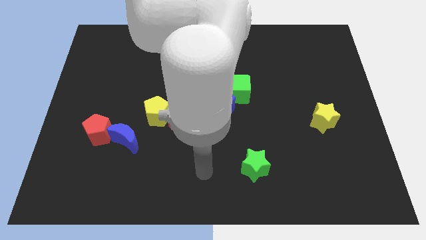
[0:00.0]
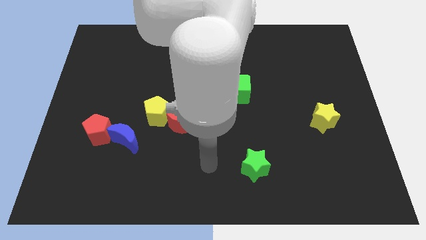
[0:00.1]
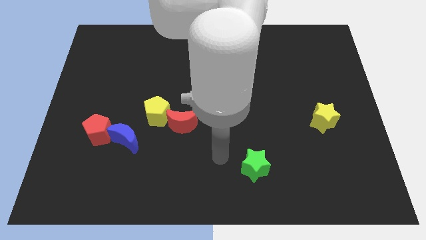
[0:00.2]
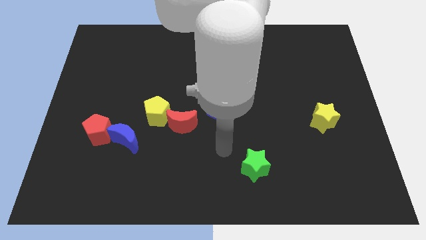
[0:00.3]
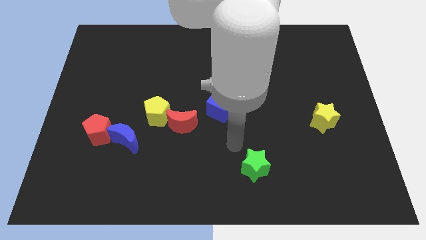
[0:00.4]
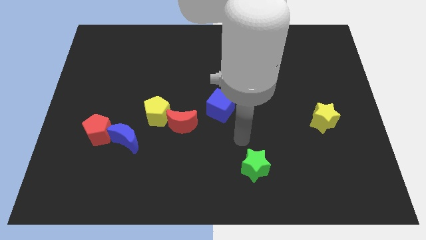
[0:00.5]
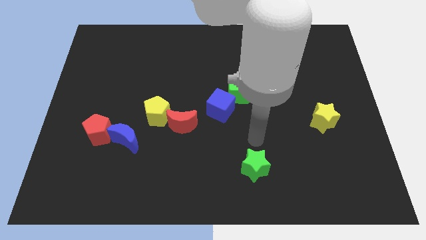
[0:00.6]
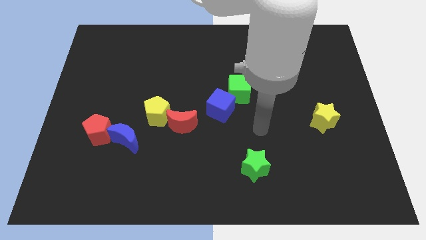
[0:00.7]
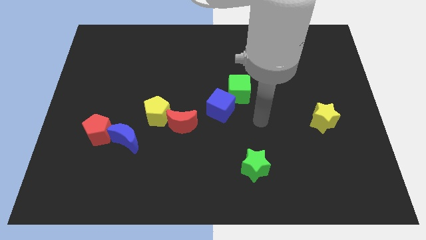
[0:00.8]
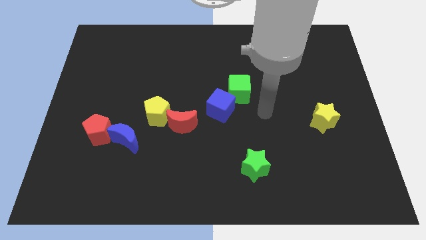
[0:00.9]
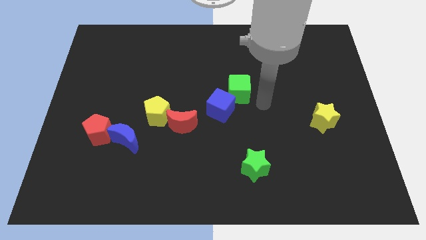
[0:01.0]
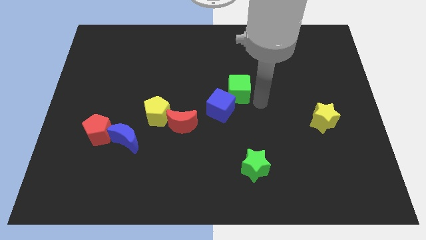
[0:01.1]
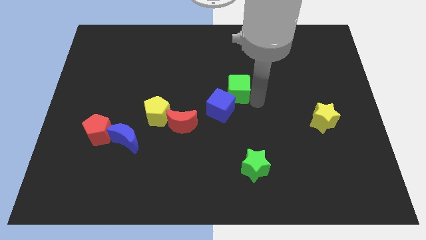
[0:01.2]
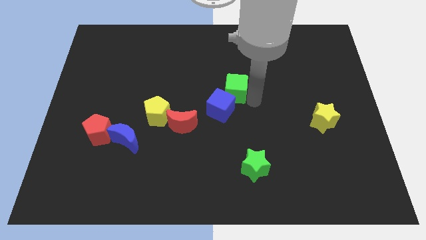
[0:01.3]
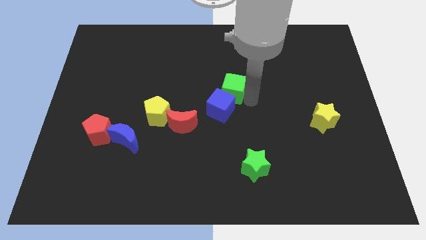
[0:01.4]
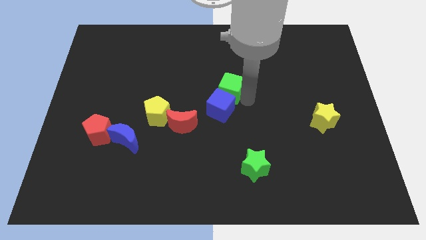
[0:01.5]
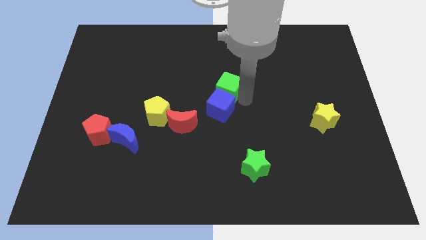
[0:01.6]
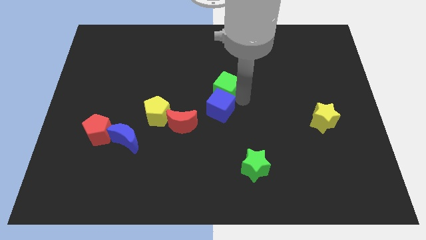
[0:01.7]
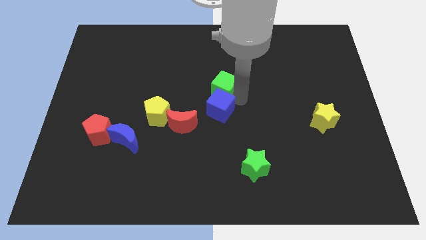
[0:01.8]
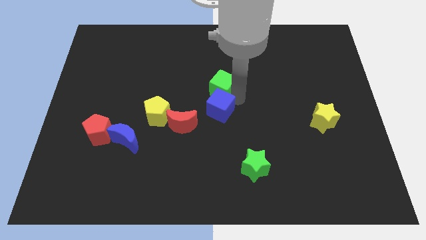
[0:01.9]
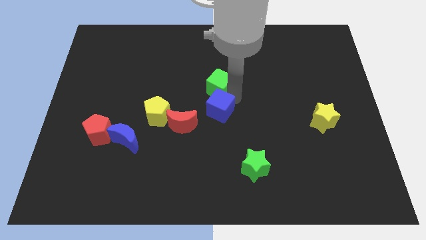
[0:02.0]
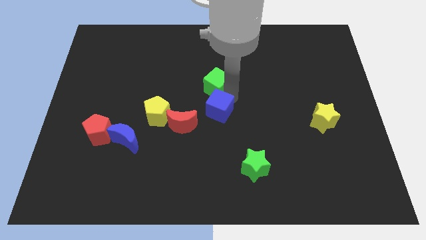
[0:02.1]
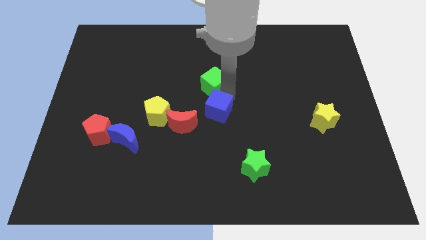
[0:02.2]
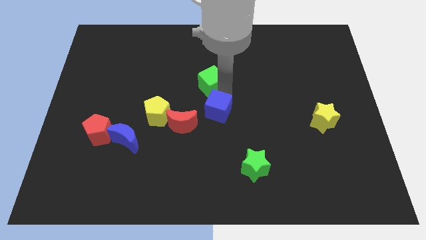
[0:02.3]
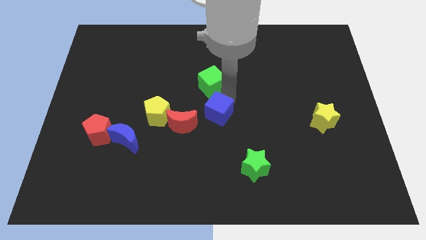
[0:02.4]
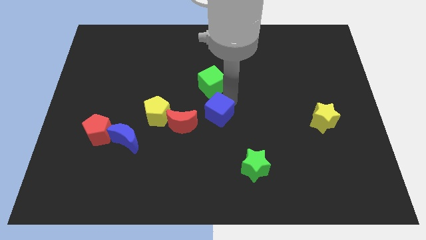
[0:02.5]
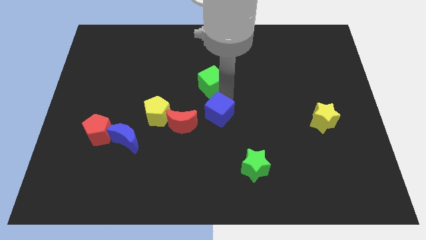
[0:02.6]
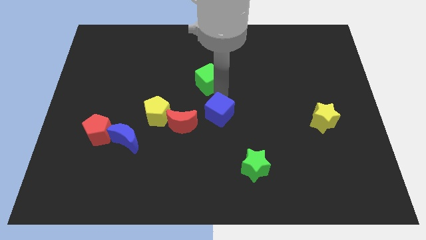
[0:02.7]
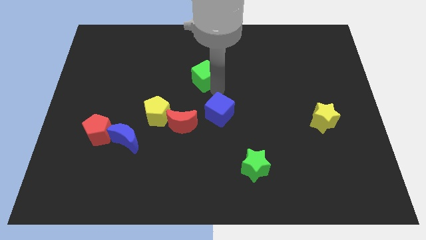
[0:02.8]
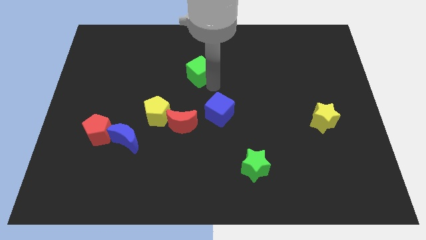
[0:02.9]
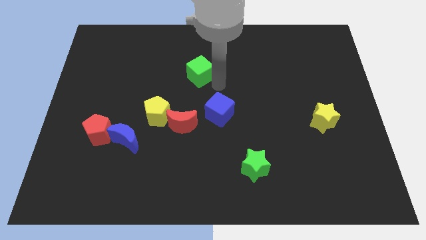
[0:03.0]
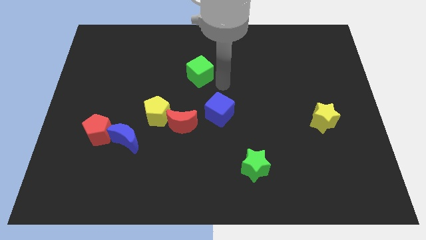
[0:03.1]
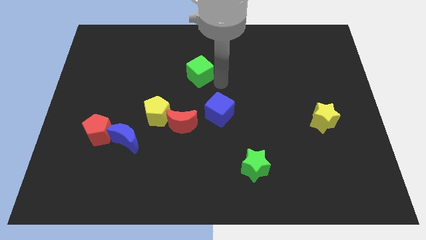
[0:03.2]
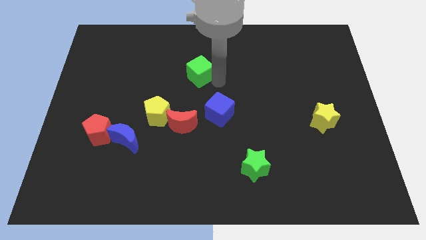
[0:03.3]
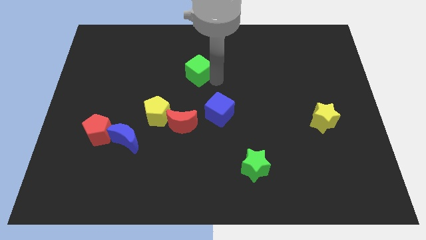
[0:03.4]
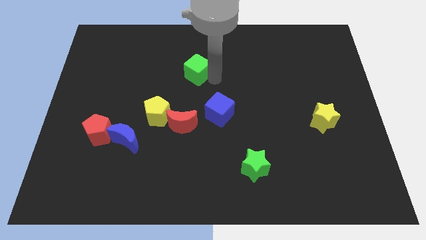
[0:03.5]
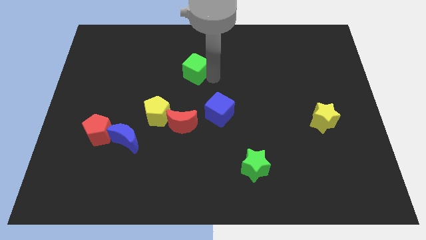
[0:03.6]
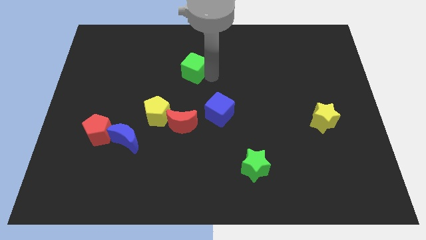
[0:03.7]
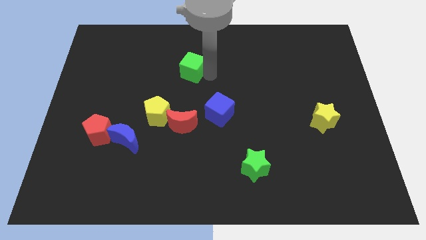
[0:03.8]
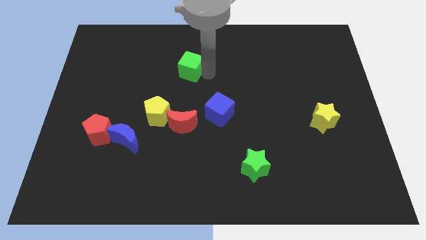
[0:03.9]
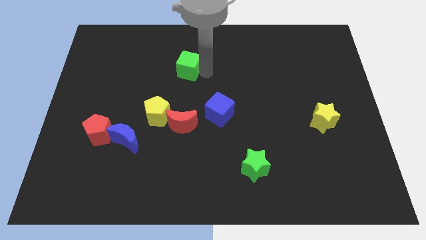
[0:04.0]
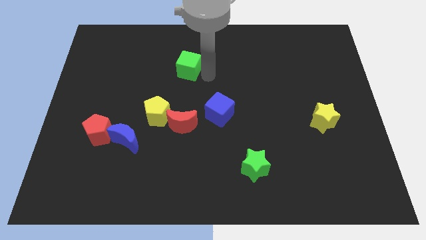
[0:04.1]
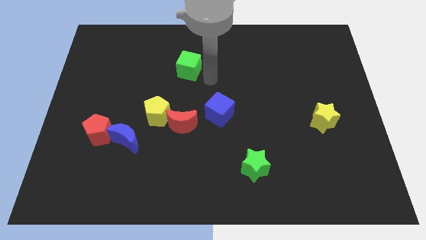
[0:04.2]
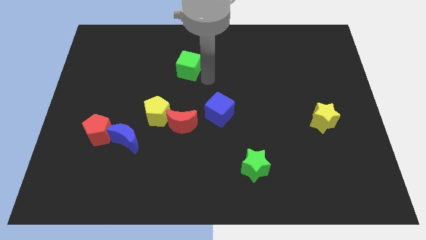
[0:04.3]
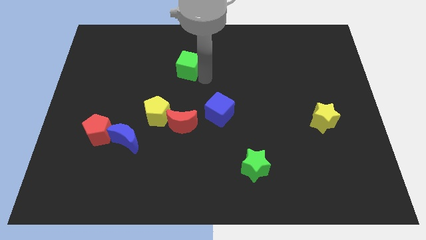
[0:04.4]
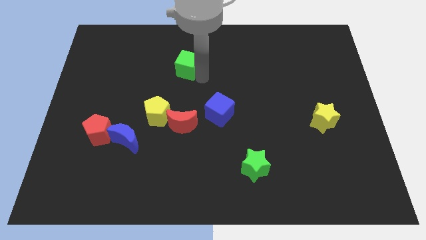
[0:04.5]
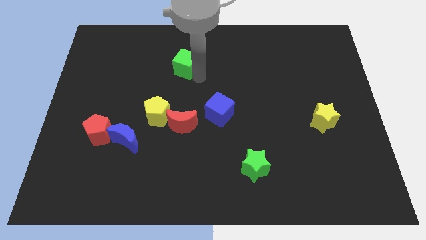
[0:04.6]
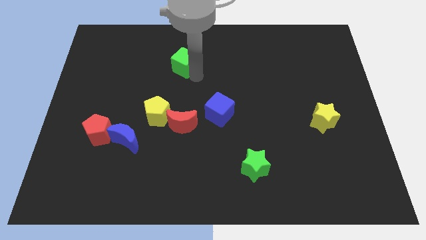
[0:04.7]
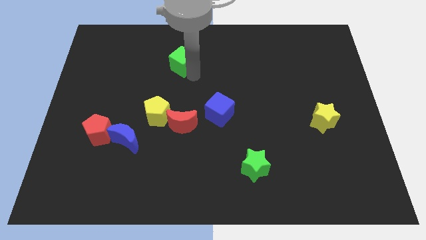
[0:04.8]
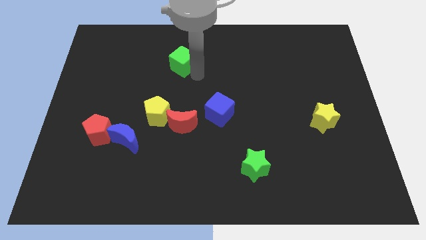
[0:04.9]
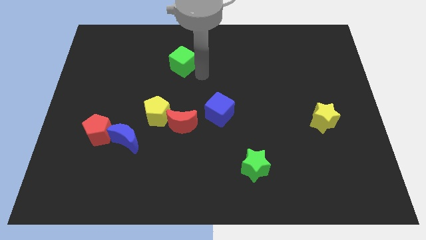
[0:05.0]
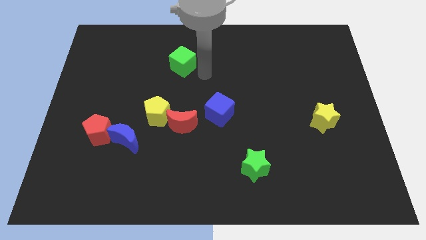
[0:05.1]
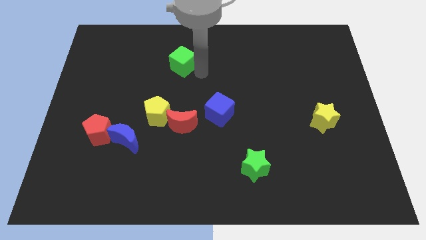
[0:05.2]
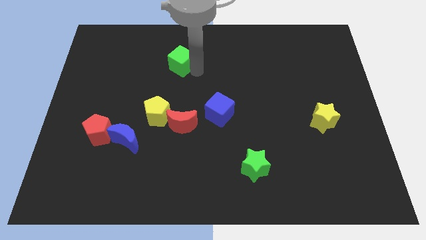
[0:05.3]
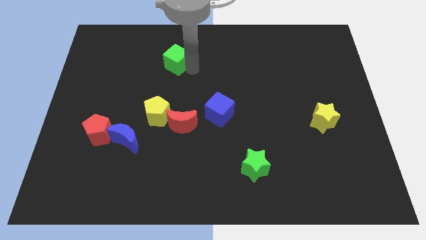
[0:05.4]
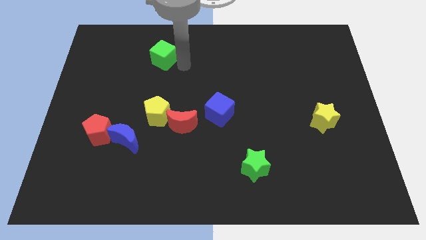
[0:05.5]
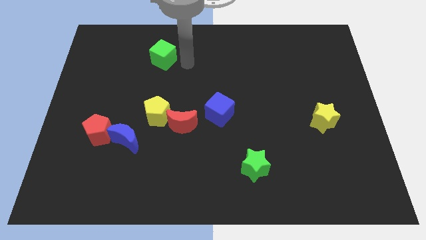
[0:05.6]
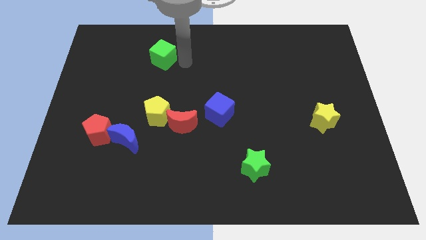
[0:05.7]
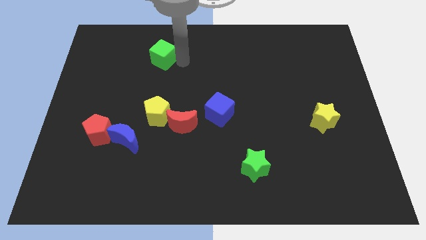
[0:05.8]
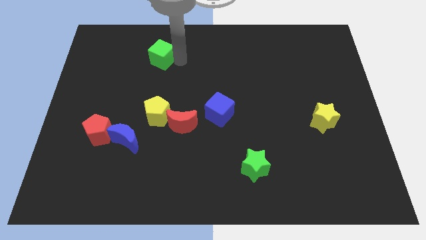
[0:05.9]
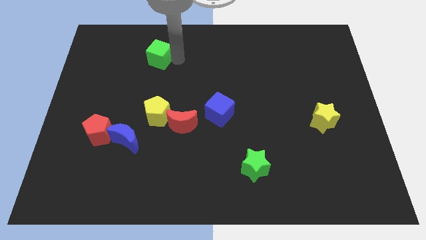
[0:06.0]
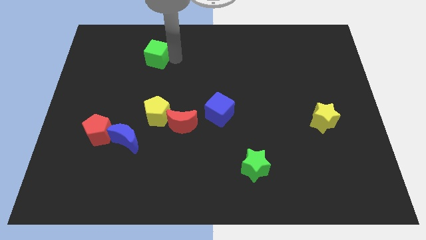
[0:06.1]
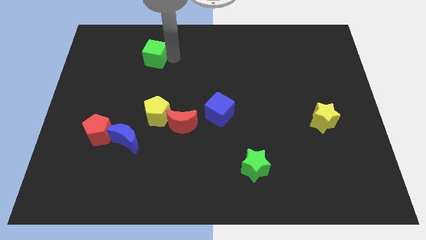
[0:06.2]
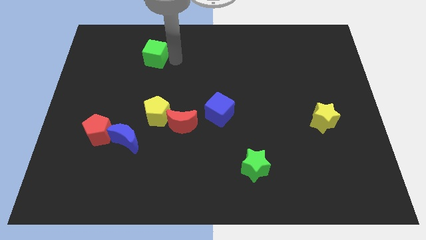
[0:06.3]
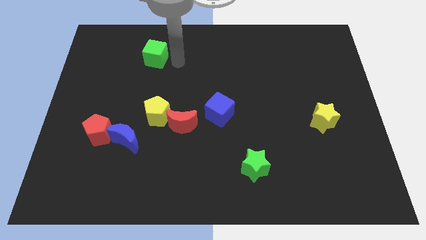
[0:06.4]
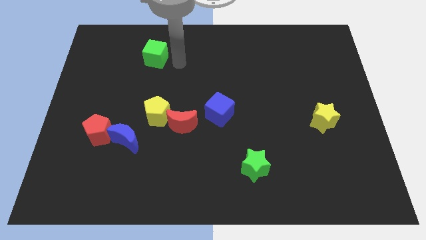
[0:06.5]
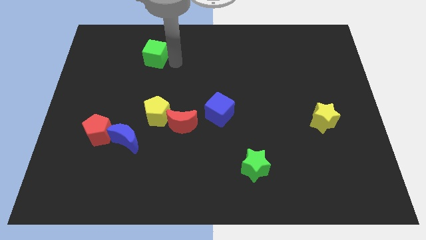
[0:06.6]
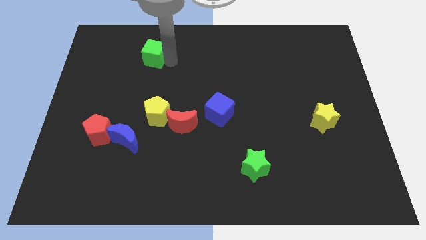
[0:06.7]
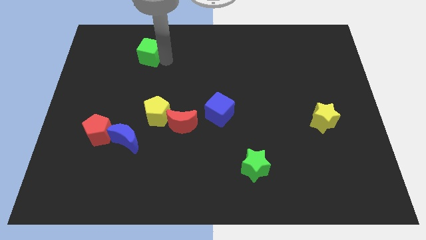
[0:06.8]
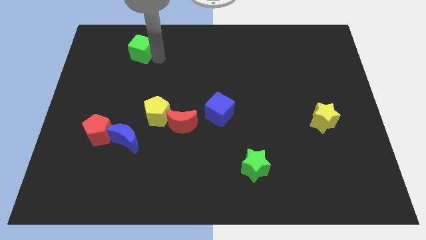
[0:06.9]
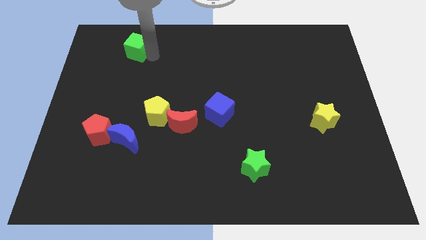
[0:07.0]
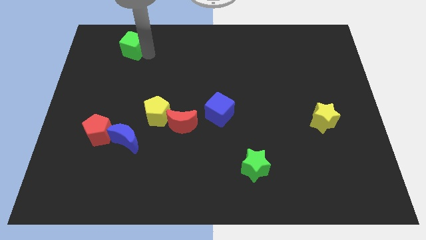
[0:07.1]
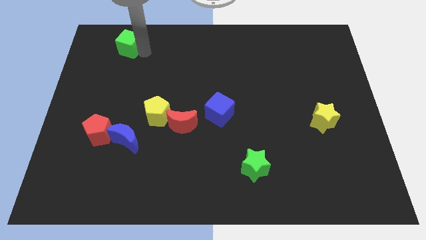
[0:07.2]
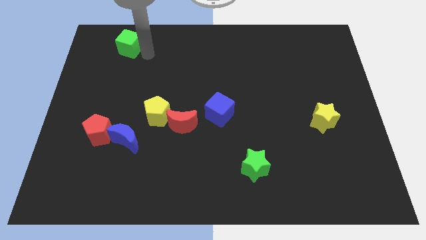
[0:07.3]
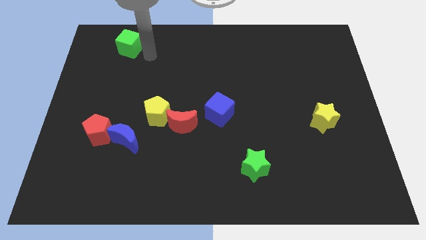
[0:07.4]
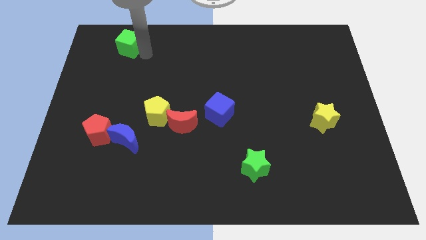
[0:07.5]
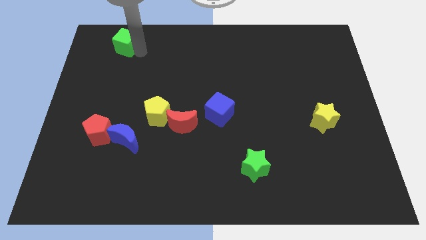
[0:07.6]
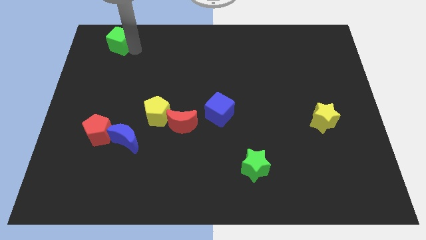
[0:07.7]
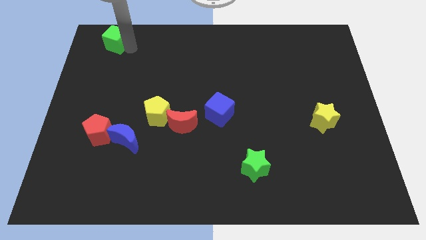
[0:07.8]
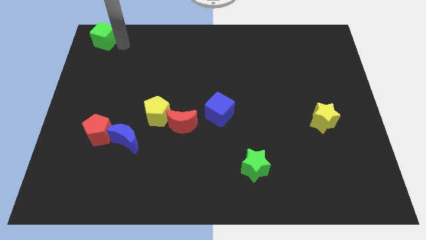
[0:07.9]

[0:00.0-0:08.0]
slide the green cube to the top left

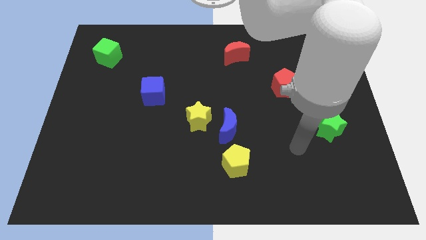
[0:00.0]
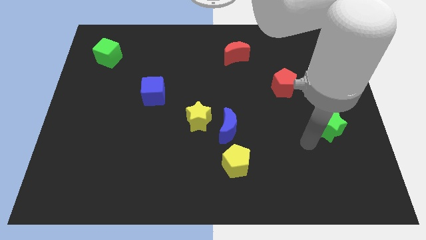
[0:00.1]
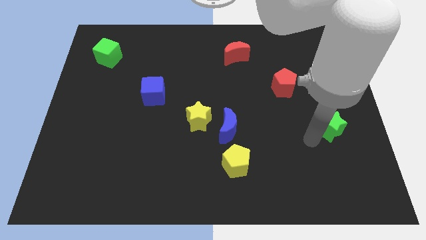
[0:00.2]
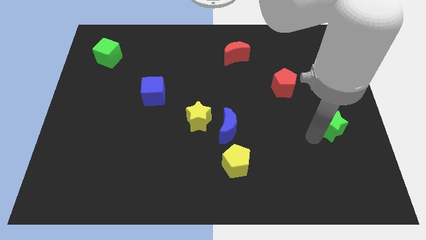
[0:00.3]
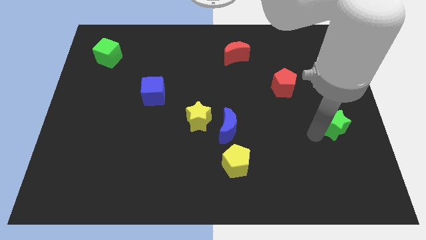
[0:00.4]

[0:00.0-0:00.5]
move the green star to the right side of the board
